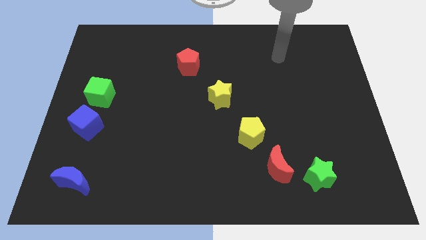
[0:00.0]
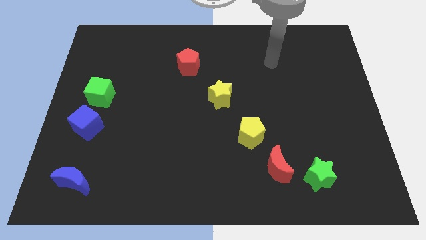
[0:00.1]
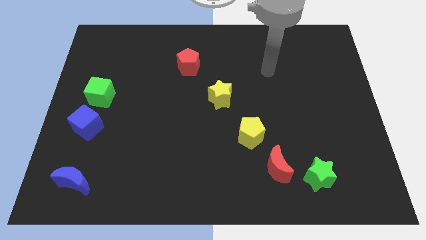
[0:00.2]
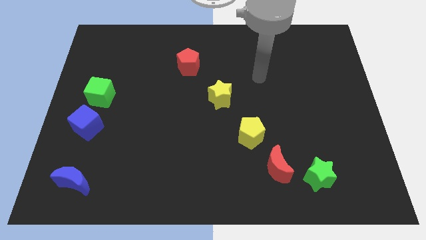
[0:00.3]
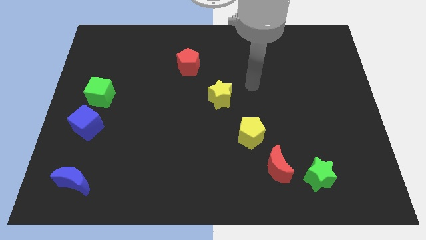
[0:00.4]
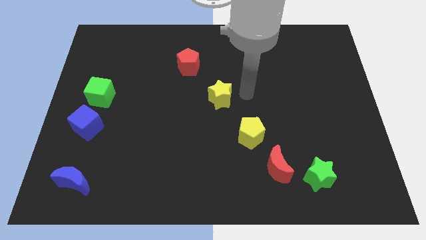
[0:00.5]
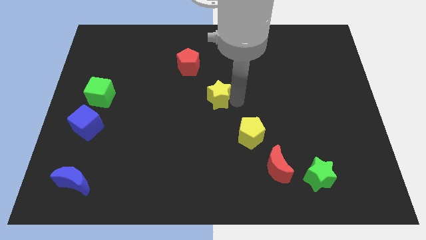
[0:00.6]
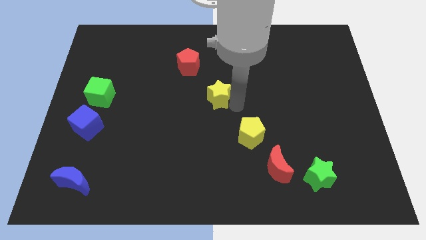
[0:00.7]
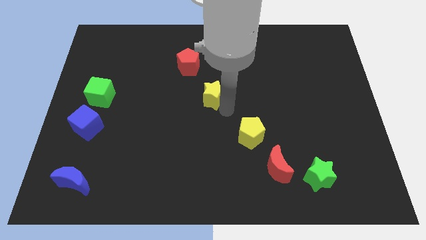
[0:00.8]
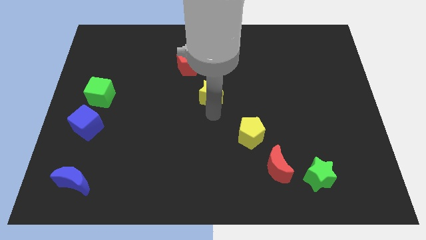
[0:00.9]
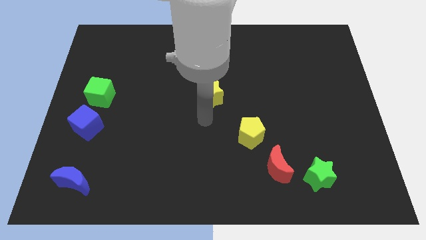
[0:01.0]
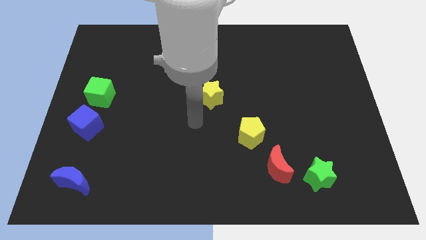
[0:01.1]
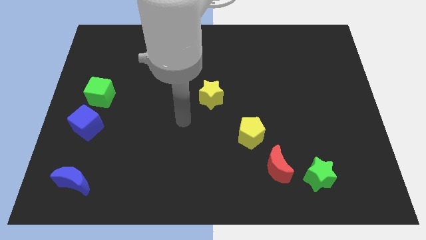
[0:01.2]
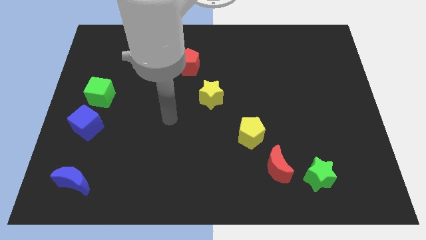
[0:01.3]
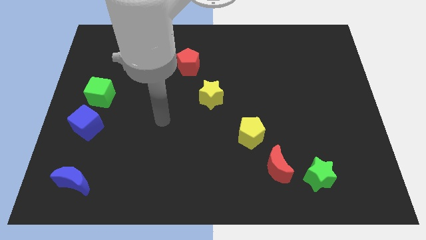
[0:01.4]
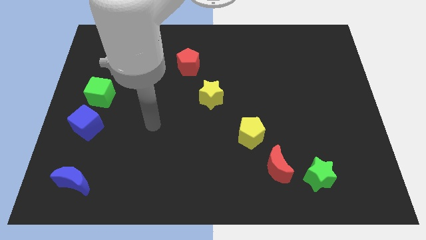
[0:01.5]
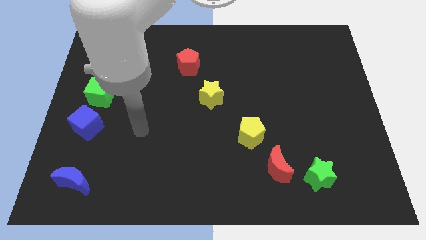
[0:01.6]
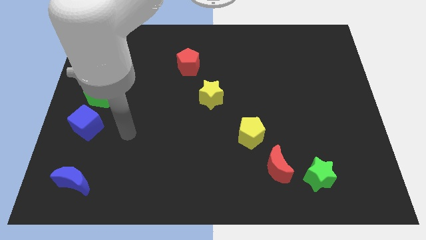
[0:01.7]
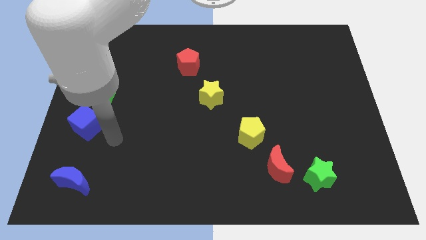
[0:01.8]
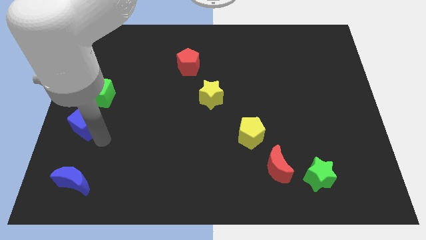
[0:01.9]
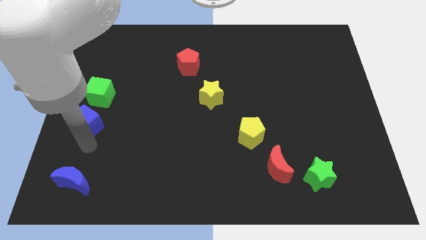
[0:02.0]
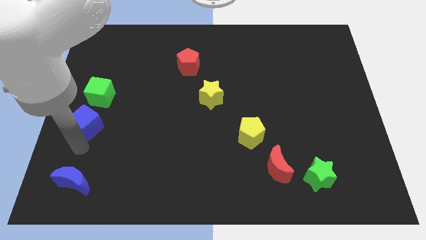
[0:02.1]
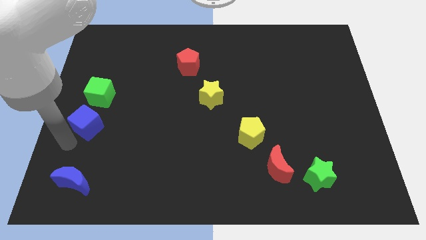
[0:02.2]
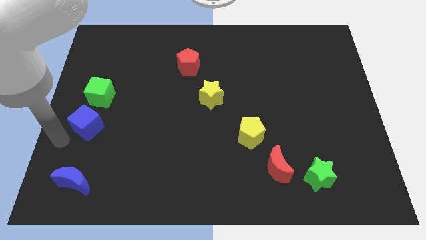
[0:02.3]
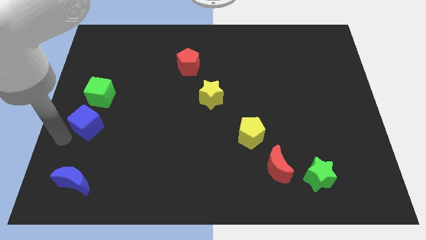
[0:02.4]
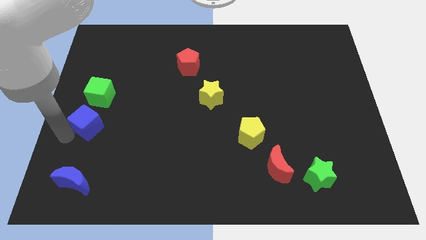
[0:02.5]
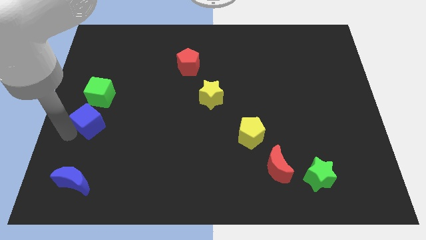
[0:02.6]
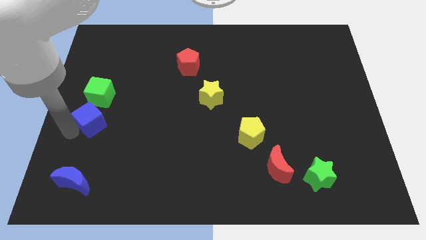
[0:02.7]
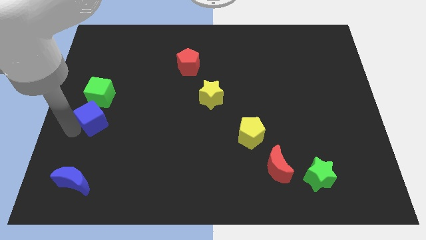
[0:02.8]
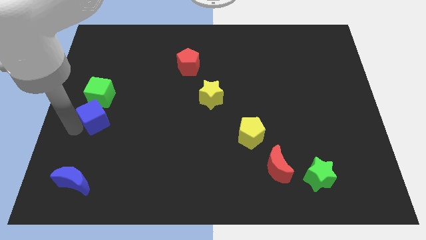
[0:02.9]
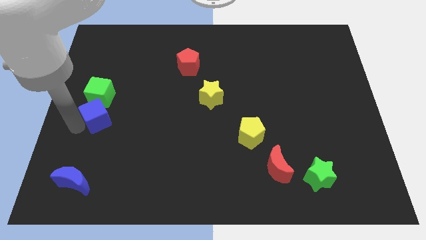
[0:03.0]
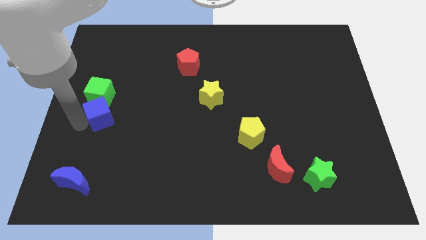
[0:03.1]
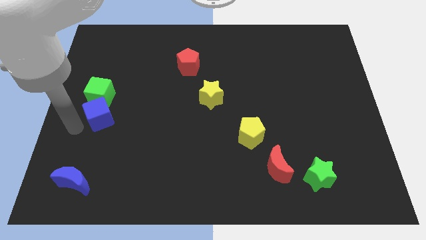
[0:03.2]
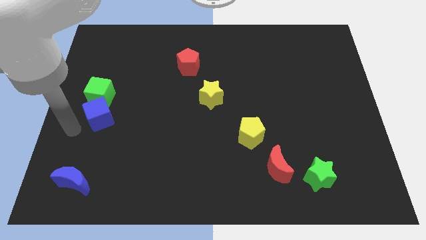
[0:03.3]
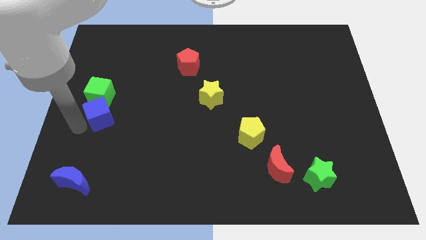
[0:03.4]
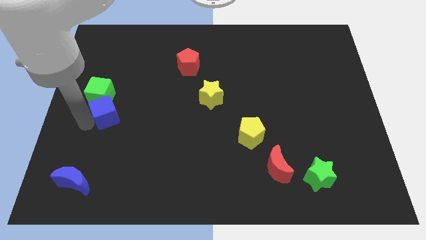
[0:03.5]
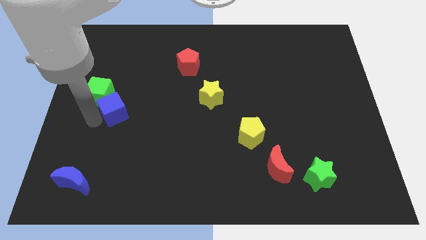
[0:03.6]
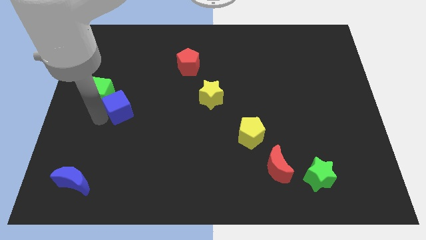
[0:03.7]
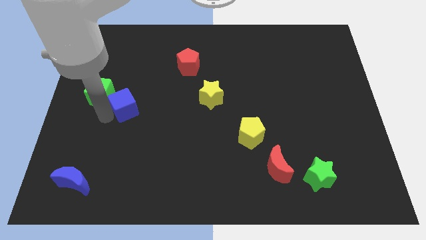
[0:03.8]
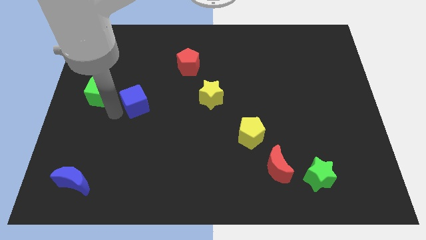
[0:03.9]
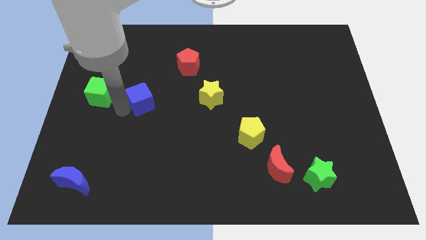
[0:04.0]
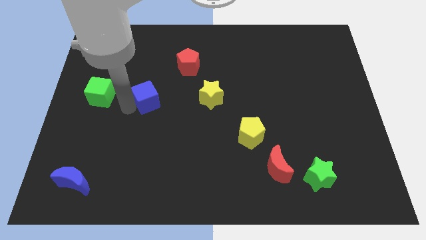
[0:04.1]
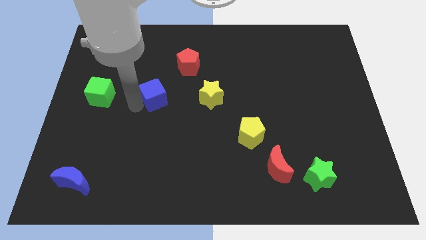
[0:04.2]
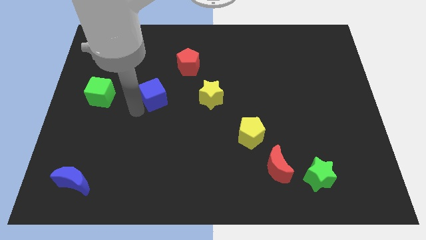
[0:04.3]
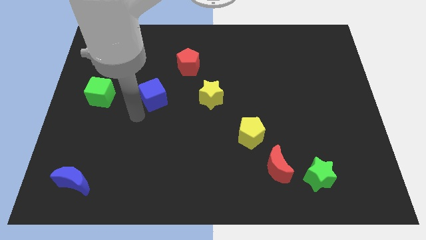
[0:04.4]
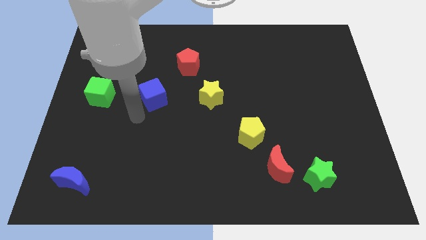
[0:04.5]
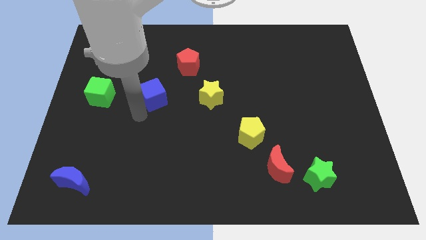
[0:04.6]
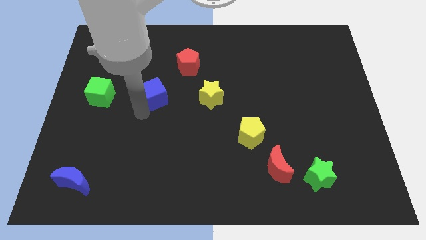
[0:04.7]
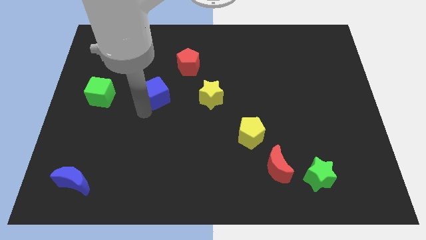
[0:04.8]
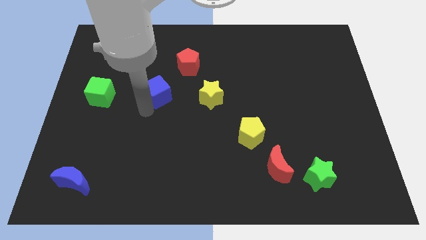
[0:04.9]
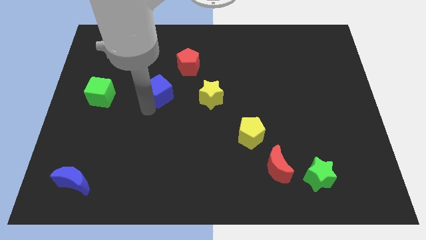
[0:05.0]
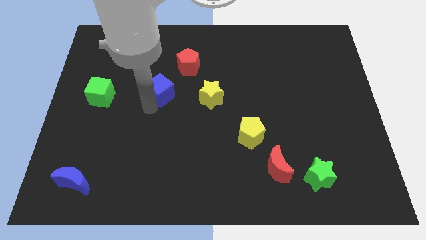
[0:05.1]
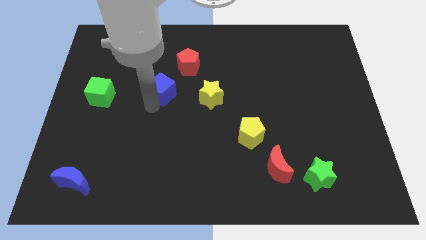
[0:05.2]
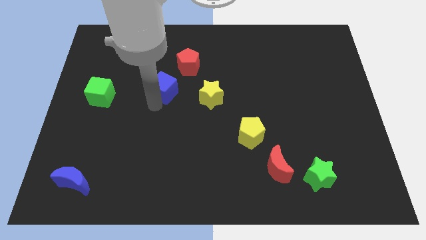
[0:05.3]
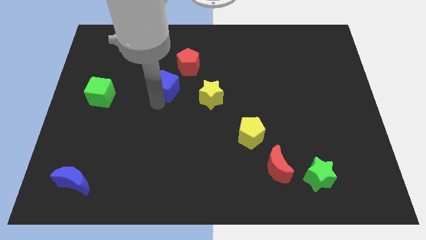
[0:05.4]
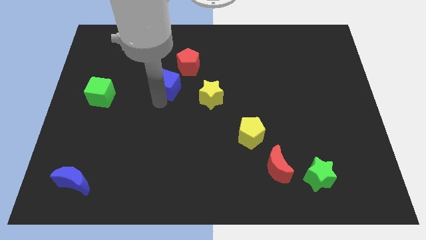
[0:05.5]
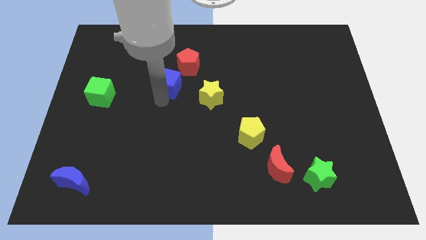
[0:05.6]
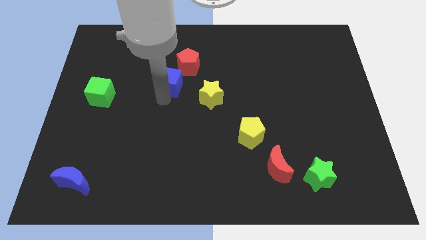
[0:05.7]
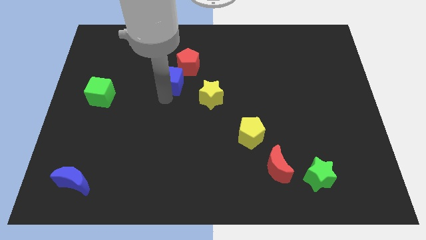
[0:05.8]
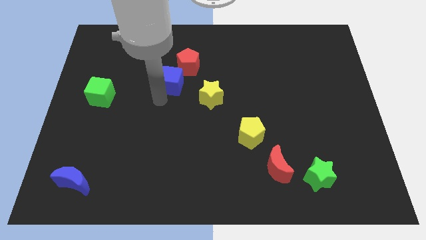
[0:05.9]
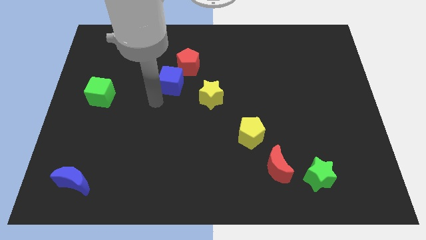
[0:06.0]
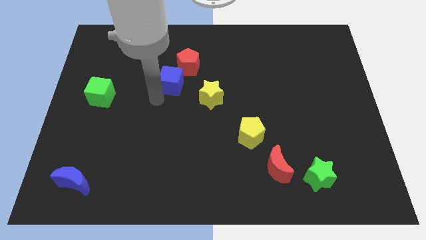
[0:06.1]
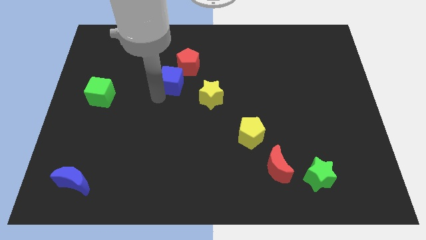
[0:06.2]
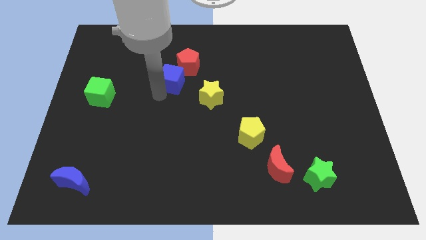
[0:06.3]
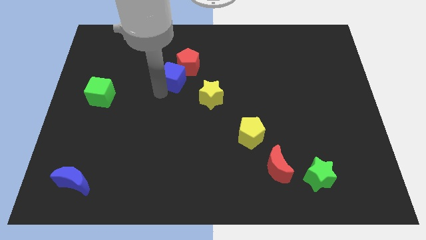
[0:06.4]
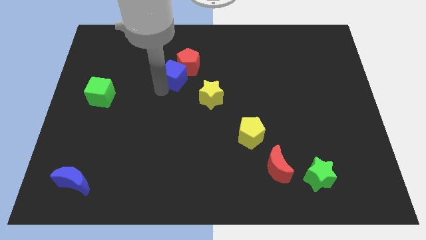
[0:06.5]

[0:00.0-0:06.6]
move the blue cube next to the red pentagon
